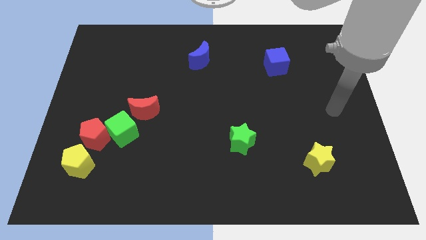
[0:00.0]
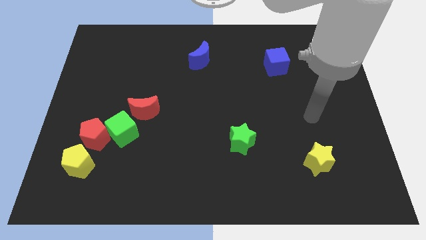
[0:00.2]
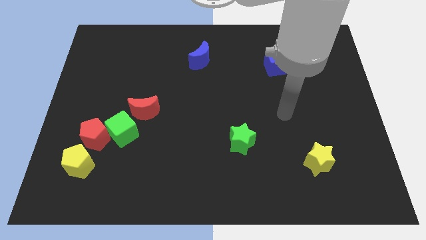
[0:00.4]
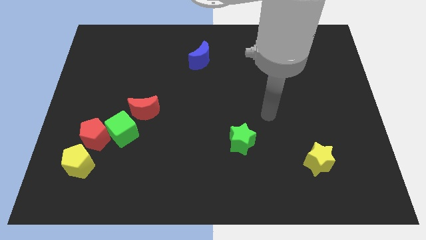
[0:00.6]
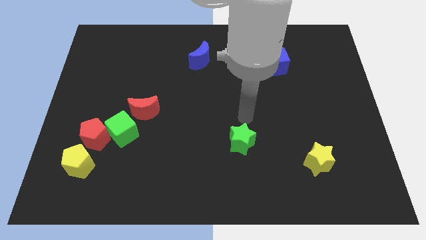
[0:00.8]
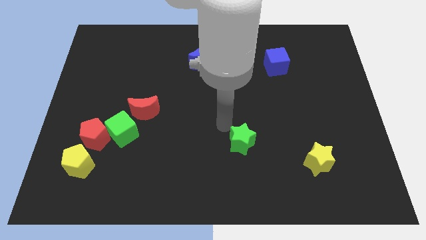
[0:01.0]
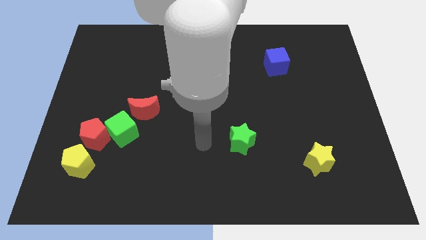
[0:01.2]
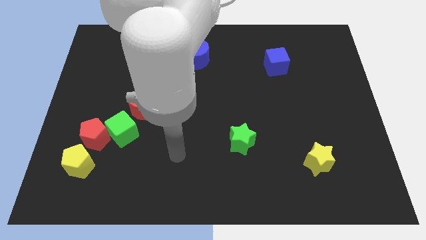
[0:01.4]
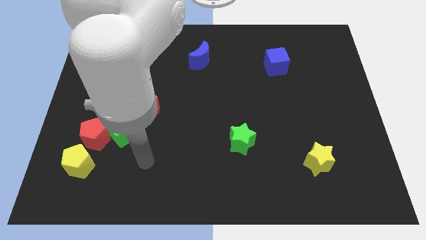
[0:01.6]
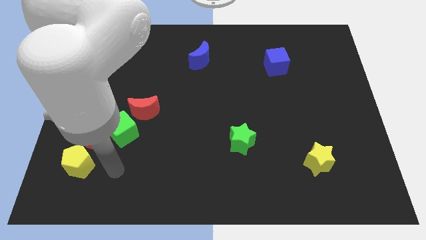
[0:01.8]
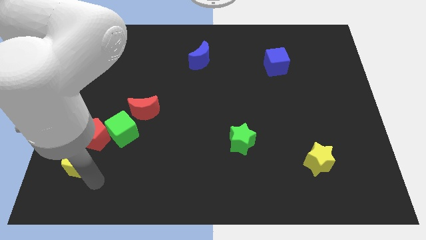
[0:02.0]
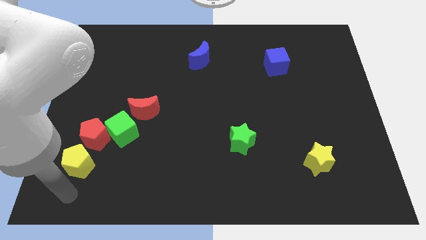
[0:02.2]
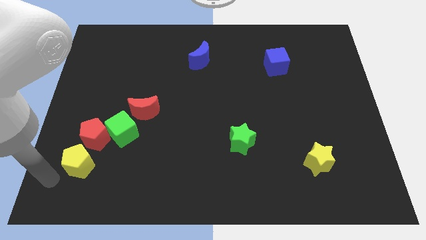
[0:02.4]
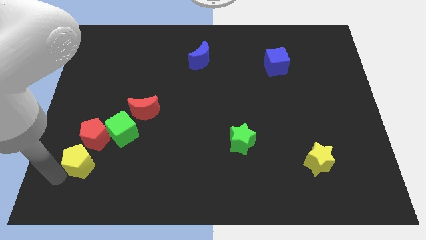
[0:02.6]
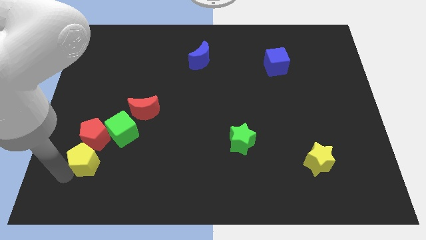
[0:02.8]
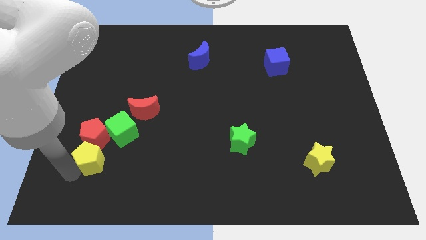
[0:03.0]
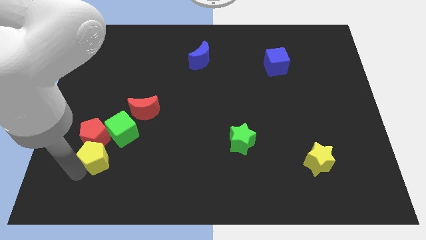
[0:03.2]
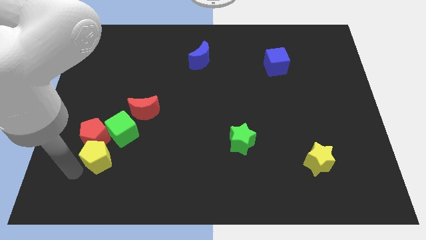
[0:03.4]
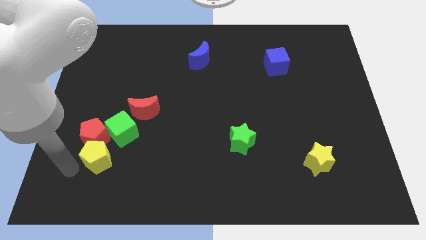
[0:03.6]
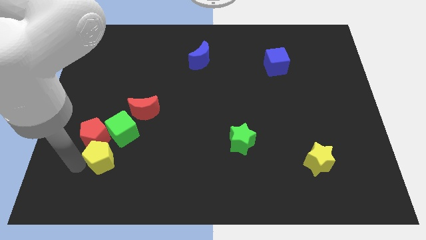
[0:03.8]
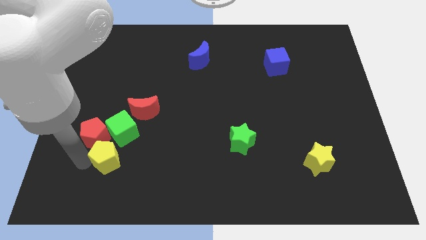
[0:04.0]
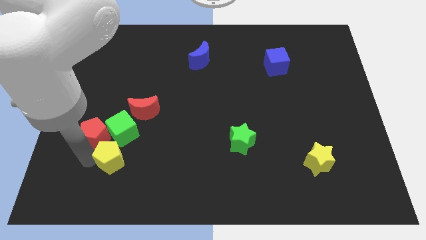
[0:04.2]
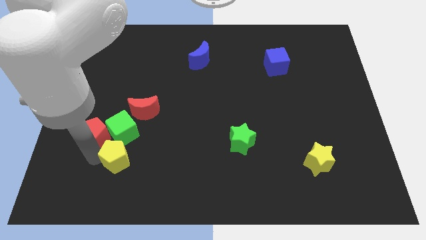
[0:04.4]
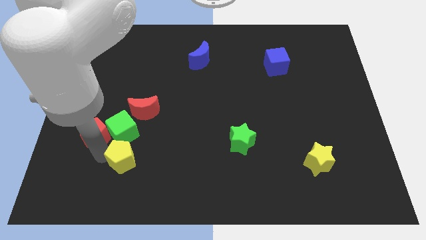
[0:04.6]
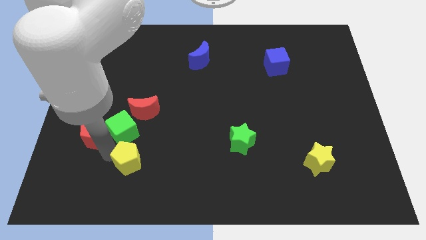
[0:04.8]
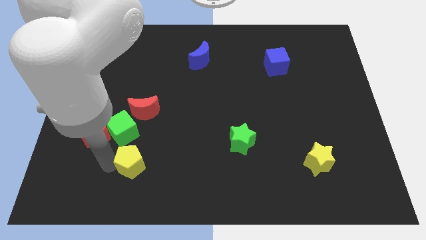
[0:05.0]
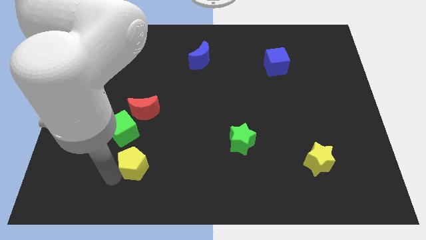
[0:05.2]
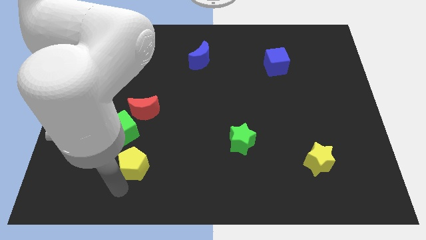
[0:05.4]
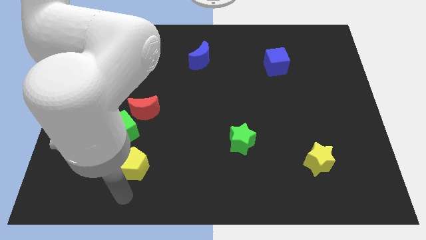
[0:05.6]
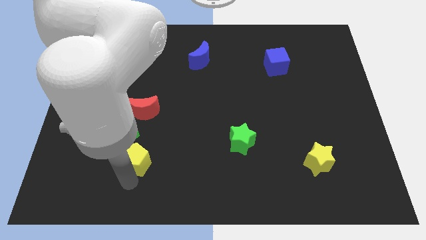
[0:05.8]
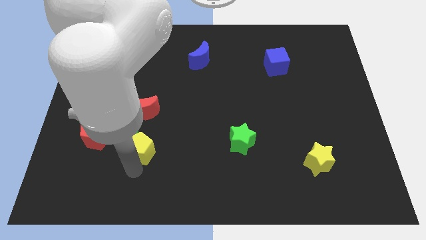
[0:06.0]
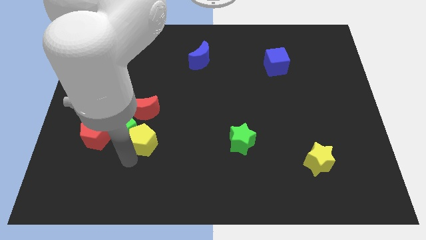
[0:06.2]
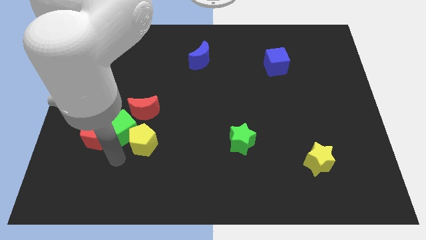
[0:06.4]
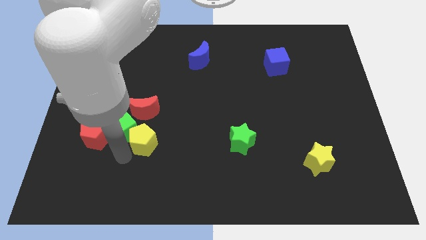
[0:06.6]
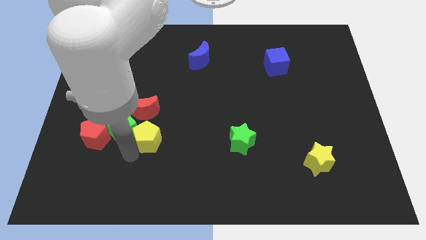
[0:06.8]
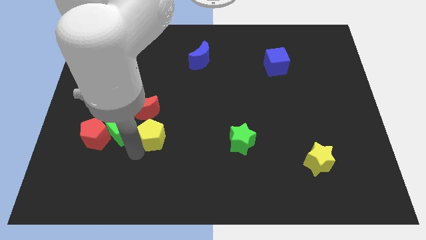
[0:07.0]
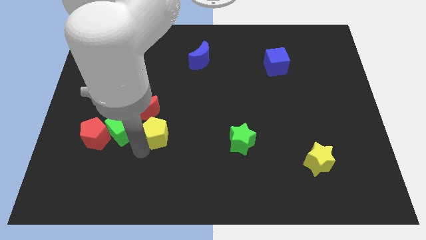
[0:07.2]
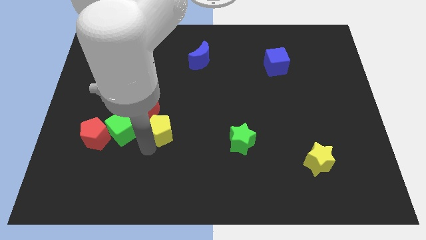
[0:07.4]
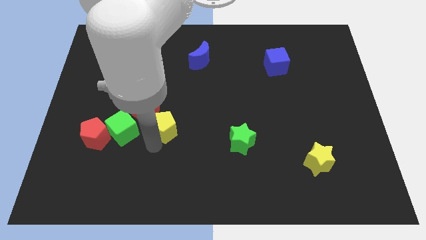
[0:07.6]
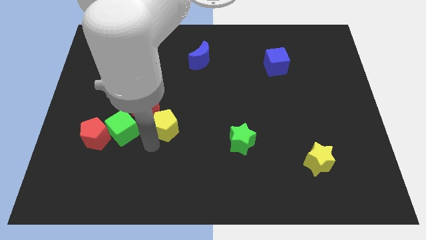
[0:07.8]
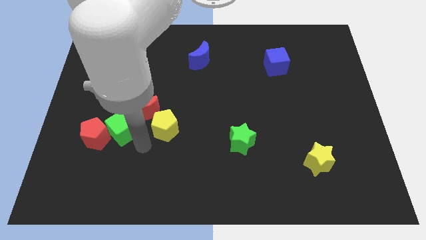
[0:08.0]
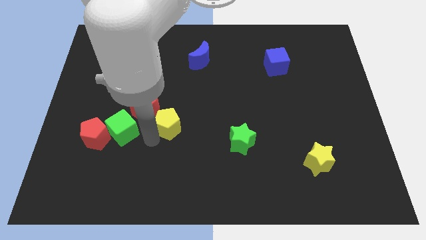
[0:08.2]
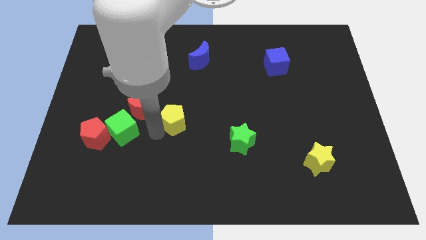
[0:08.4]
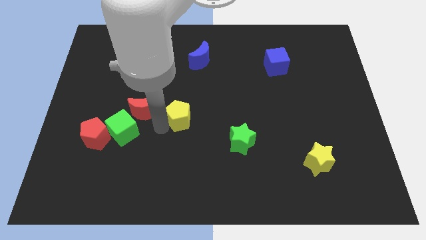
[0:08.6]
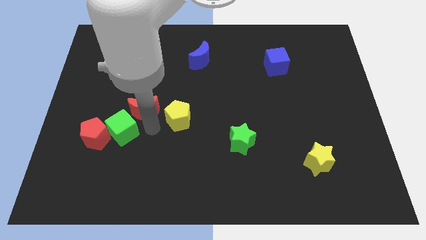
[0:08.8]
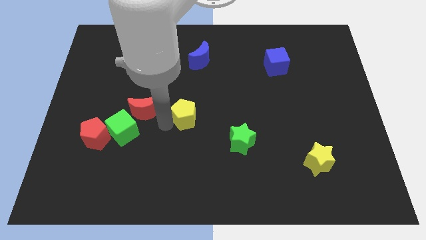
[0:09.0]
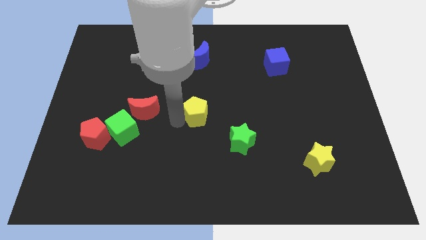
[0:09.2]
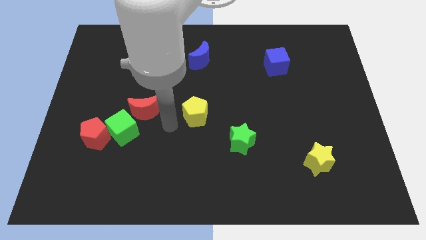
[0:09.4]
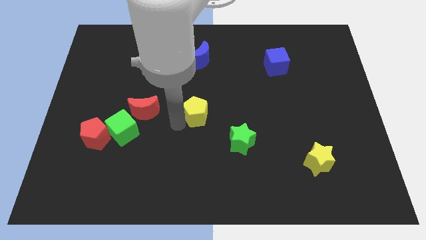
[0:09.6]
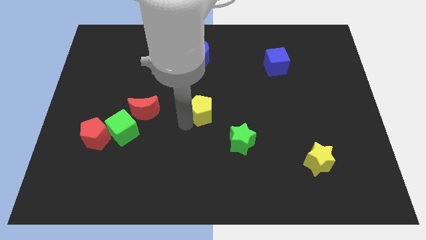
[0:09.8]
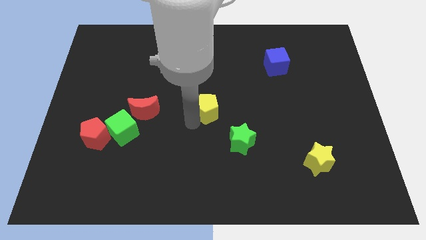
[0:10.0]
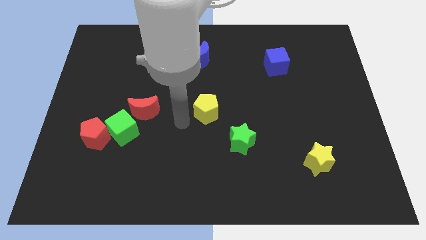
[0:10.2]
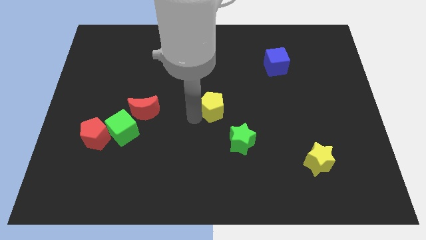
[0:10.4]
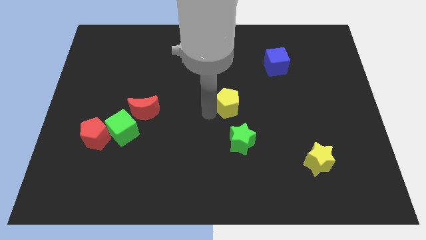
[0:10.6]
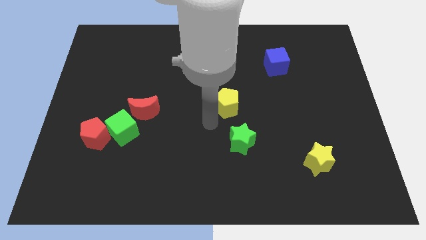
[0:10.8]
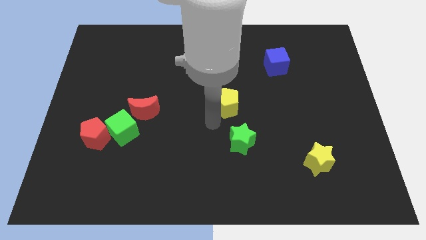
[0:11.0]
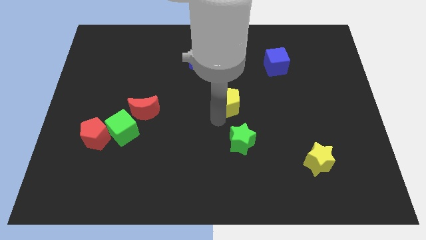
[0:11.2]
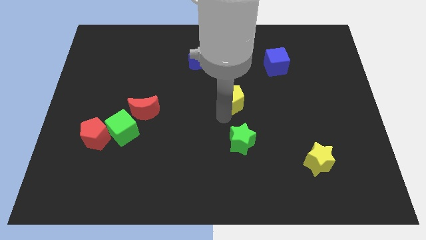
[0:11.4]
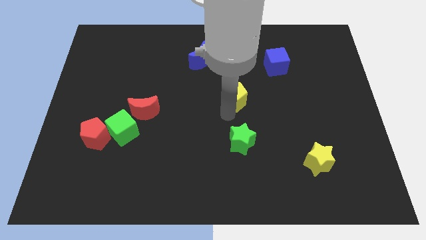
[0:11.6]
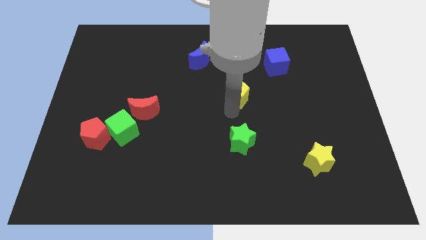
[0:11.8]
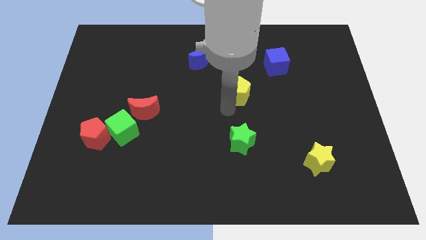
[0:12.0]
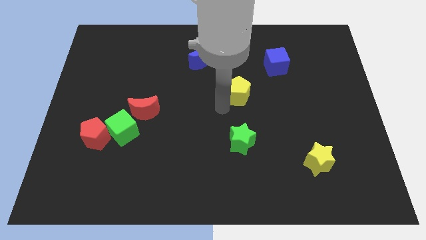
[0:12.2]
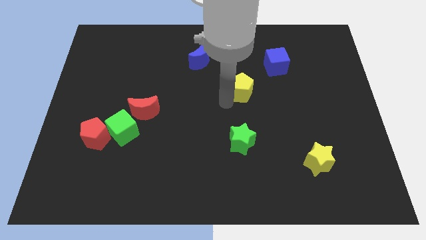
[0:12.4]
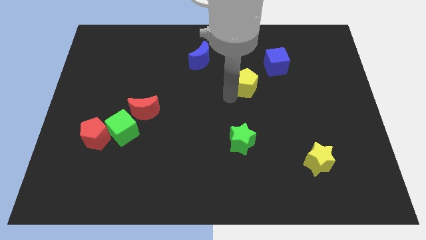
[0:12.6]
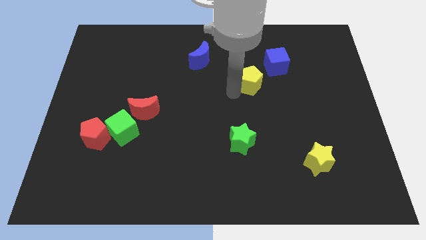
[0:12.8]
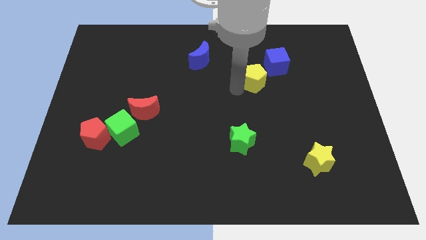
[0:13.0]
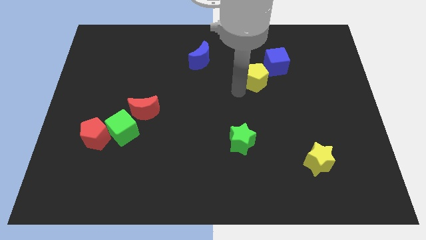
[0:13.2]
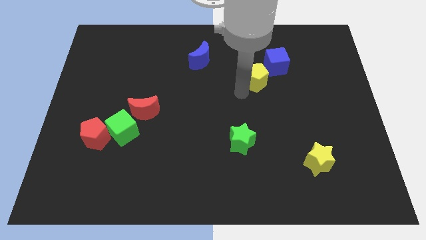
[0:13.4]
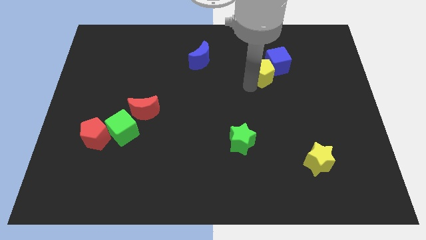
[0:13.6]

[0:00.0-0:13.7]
slide the yellow pentagon to the blue cube
